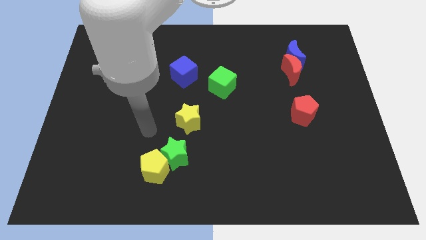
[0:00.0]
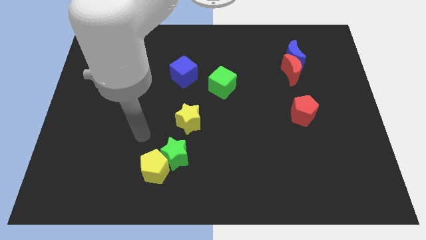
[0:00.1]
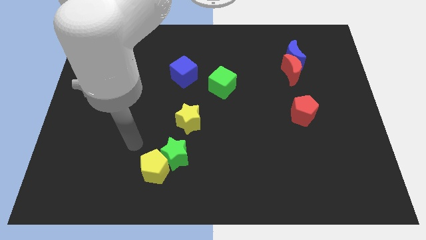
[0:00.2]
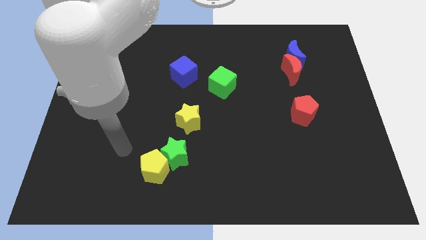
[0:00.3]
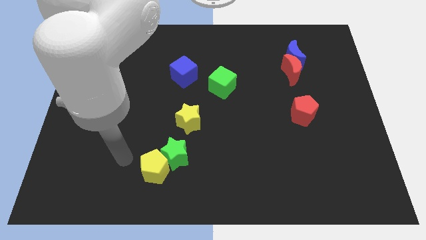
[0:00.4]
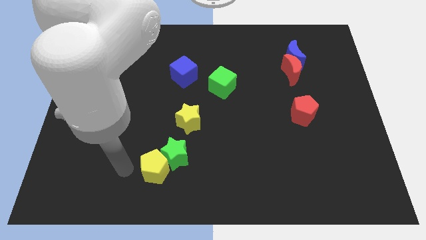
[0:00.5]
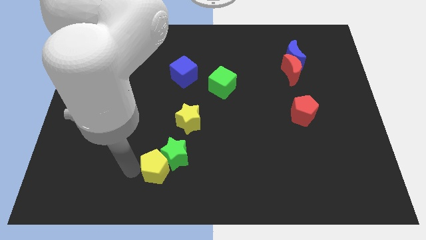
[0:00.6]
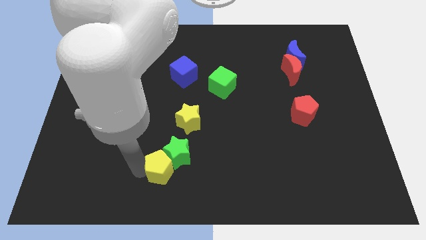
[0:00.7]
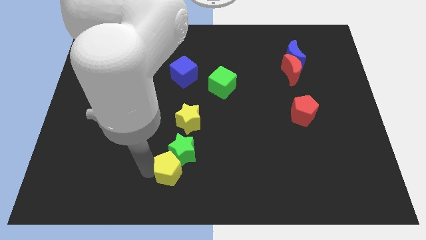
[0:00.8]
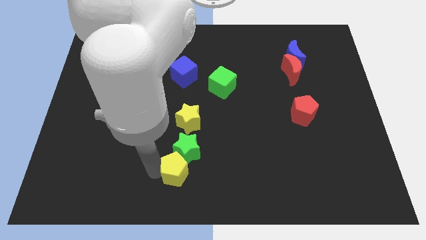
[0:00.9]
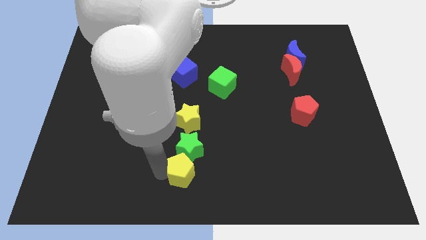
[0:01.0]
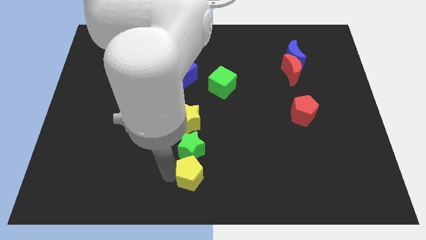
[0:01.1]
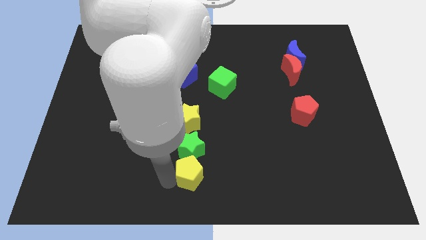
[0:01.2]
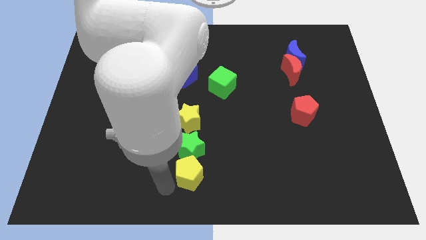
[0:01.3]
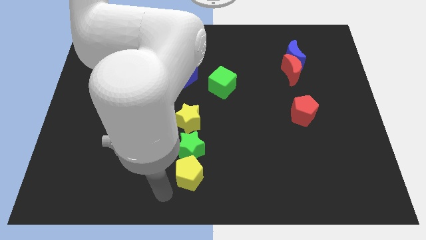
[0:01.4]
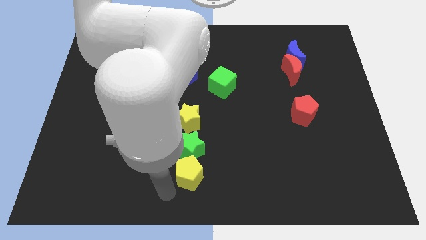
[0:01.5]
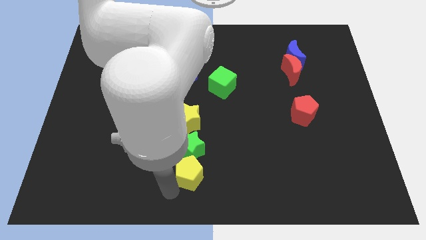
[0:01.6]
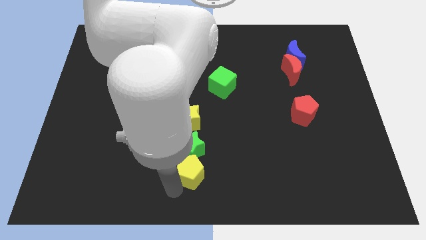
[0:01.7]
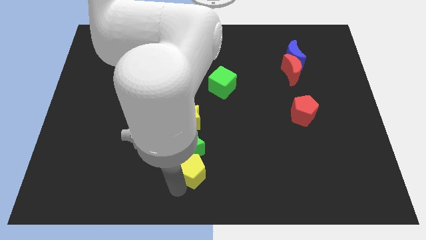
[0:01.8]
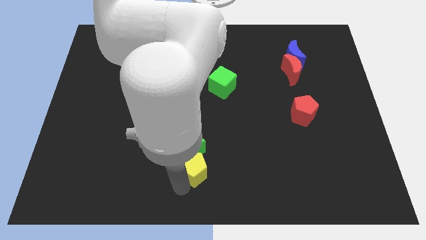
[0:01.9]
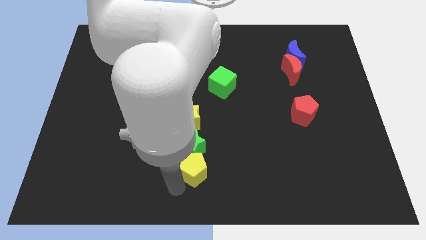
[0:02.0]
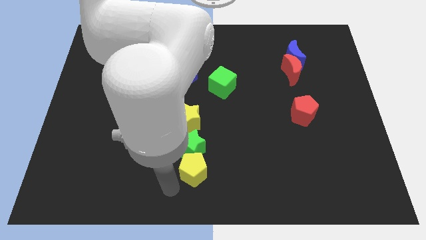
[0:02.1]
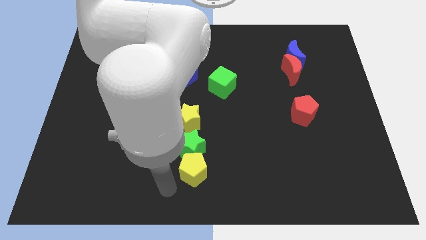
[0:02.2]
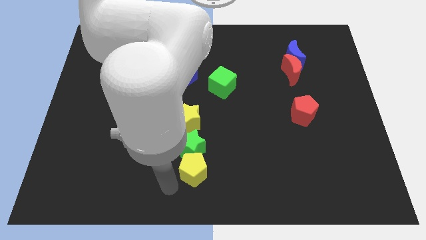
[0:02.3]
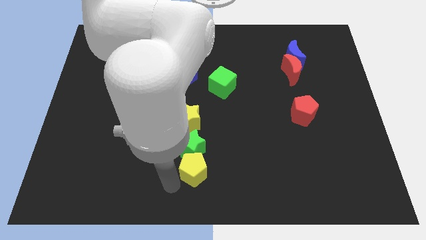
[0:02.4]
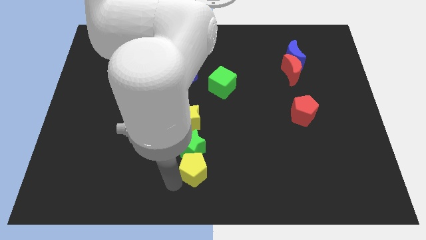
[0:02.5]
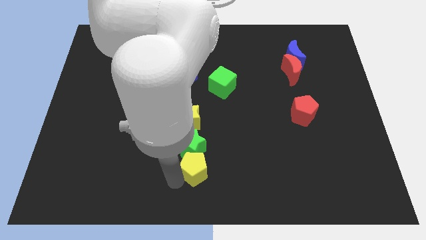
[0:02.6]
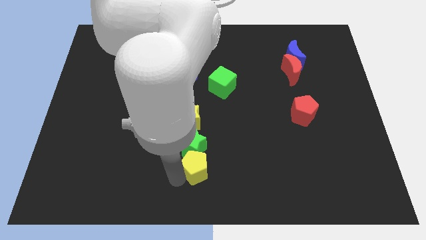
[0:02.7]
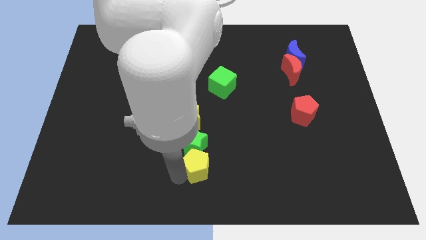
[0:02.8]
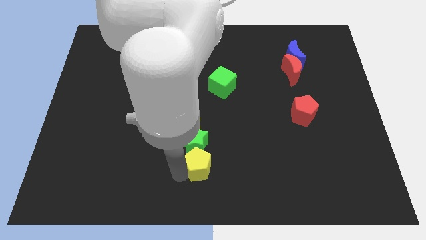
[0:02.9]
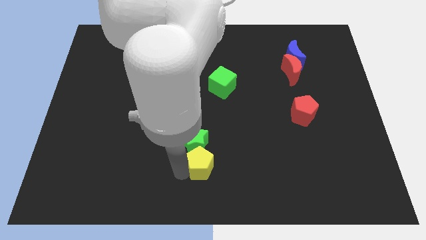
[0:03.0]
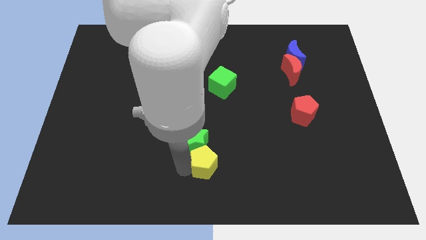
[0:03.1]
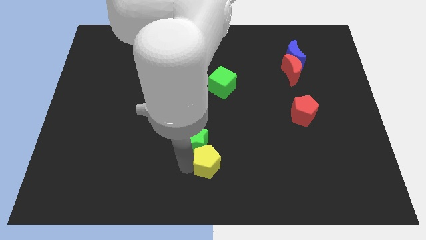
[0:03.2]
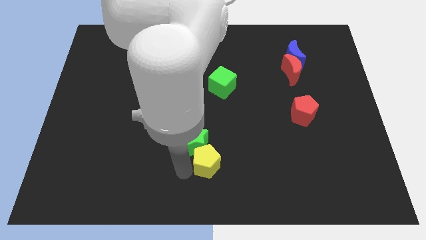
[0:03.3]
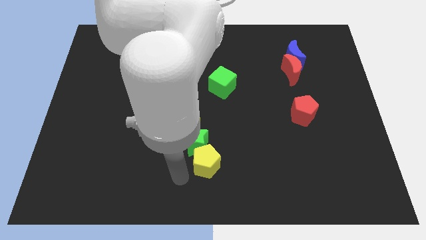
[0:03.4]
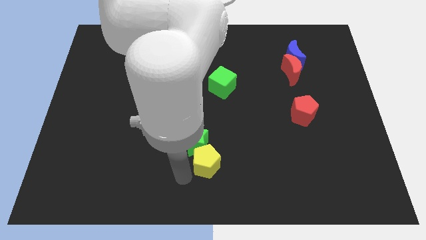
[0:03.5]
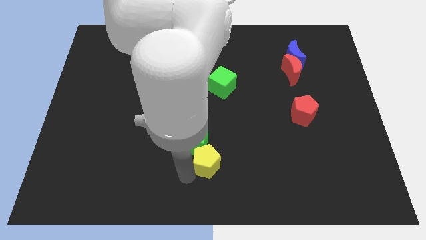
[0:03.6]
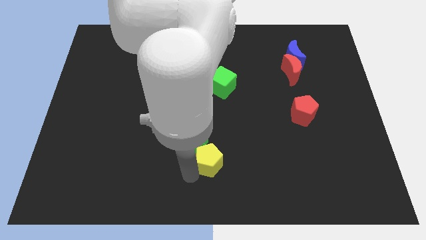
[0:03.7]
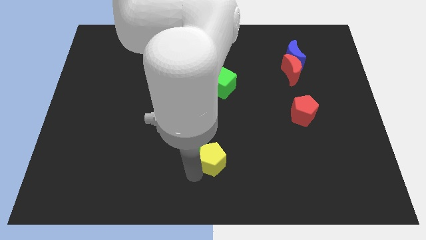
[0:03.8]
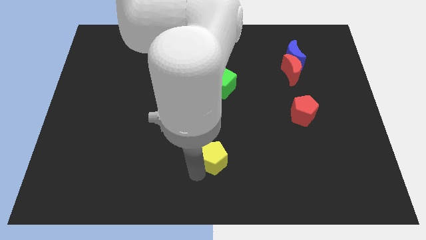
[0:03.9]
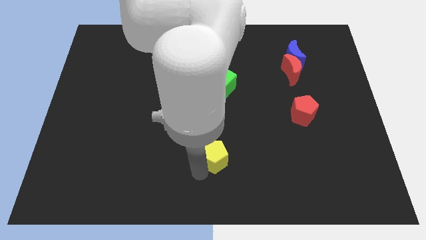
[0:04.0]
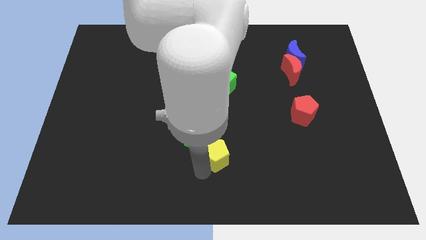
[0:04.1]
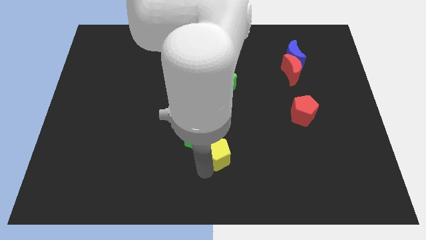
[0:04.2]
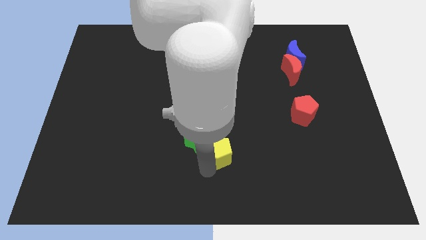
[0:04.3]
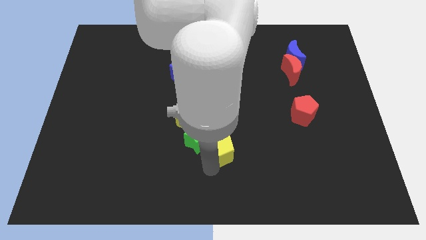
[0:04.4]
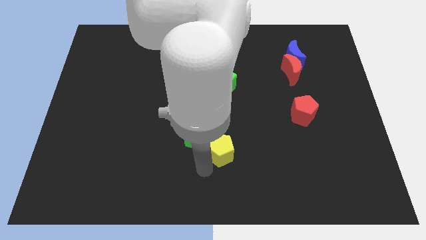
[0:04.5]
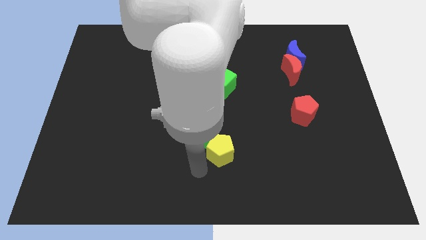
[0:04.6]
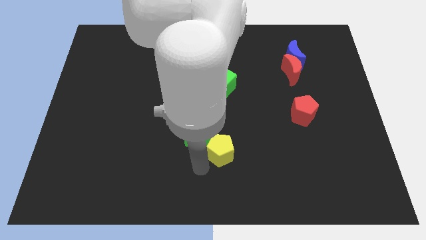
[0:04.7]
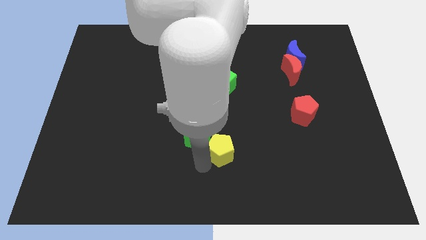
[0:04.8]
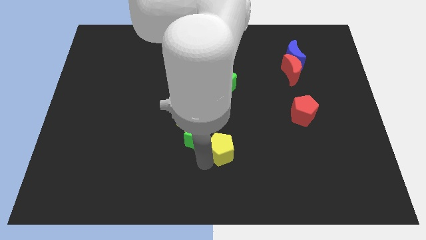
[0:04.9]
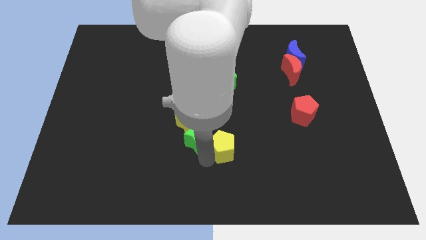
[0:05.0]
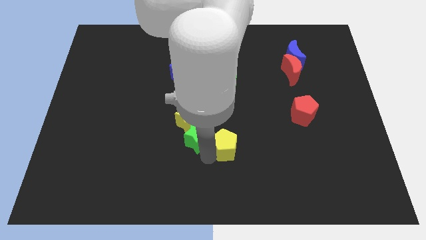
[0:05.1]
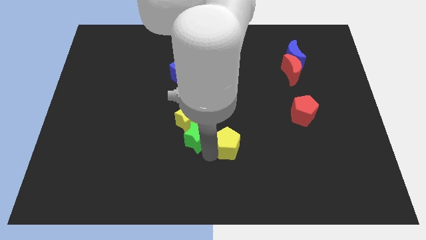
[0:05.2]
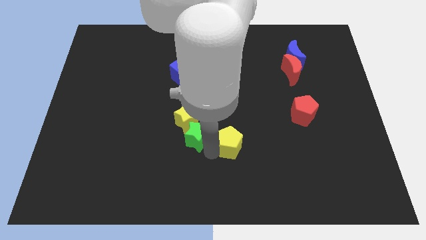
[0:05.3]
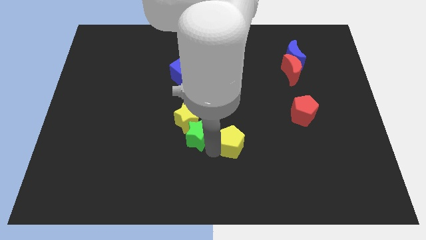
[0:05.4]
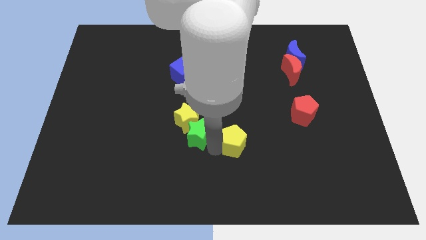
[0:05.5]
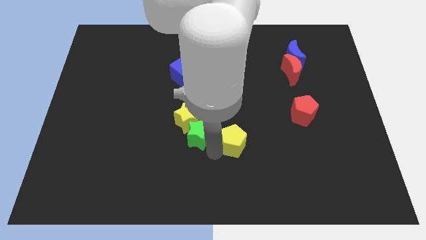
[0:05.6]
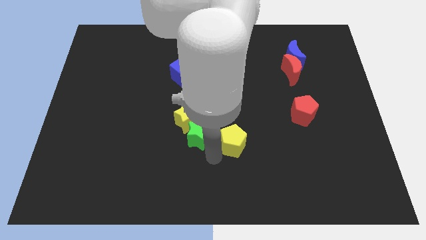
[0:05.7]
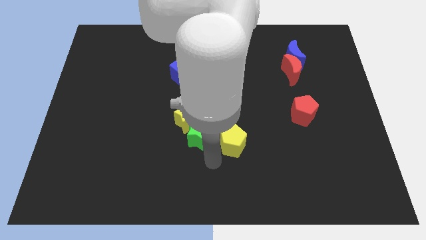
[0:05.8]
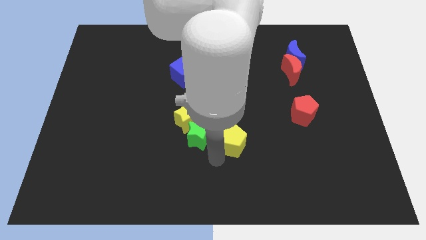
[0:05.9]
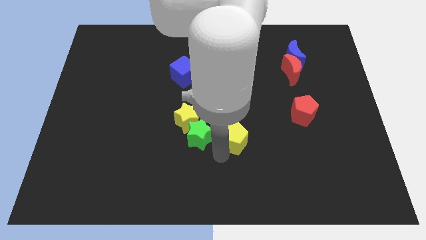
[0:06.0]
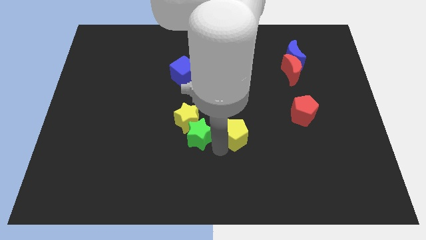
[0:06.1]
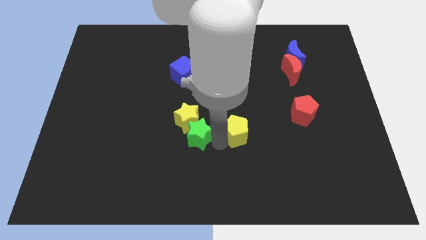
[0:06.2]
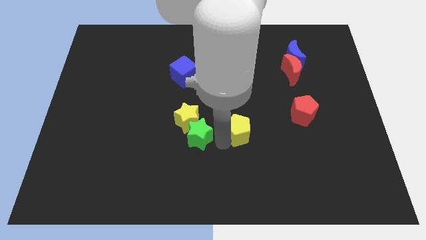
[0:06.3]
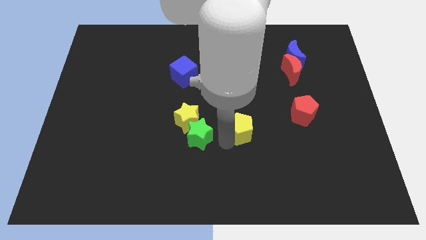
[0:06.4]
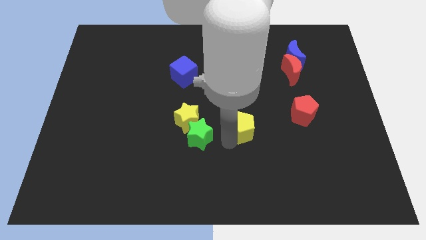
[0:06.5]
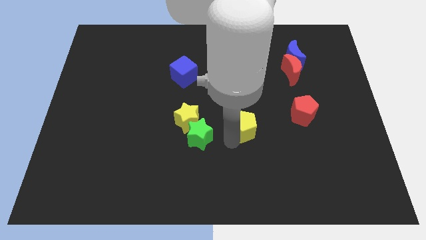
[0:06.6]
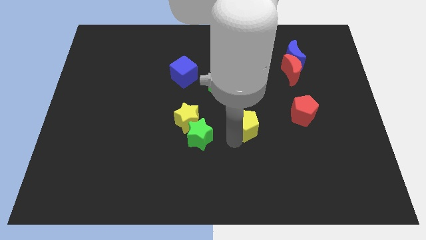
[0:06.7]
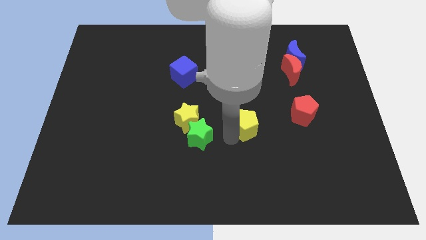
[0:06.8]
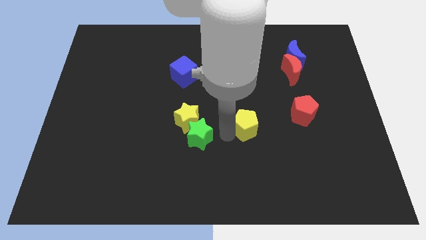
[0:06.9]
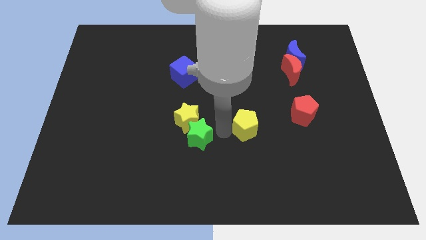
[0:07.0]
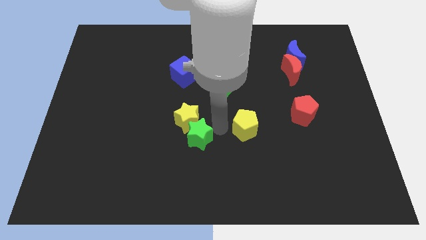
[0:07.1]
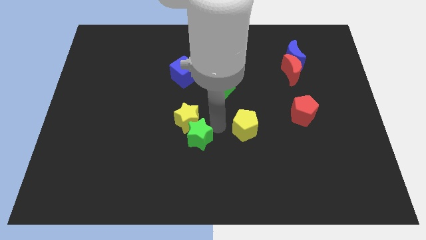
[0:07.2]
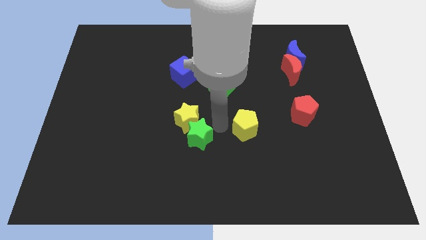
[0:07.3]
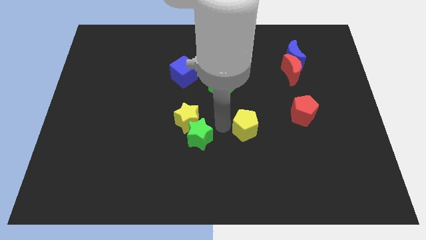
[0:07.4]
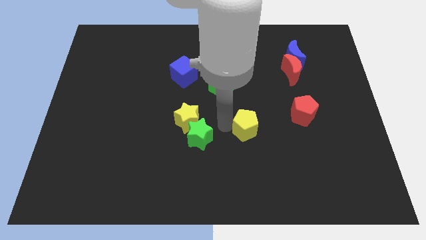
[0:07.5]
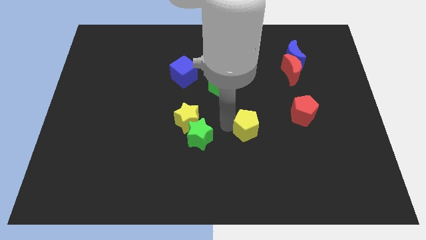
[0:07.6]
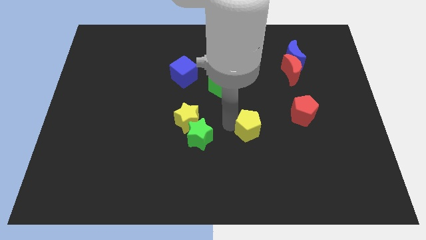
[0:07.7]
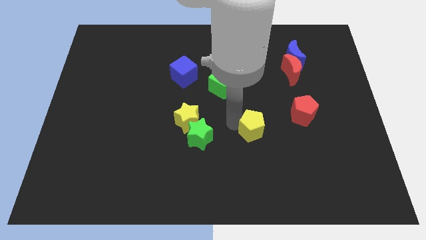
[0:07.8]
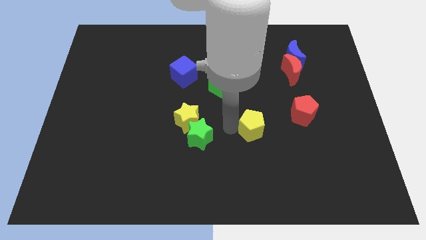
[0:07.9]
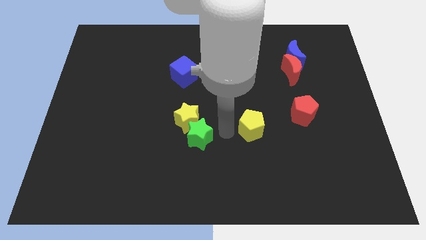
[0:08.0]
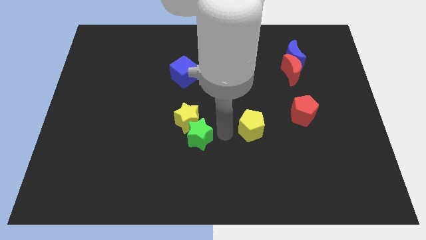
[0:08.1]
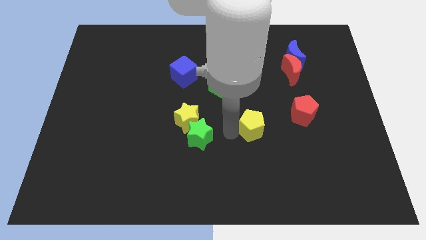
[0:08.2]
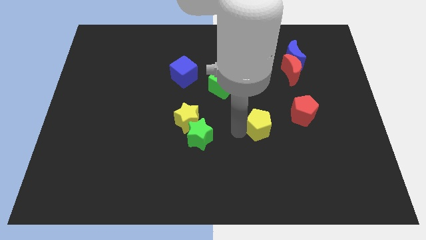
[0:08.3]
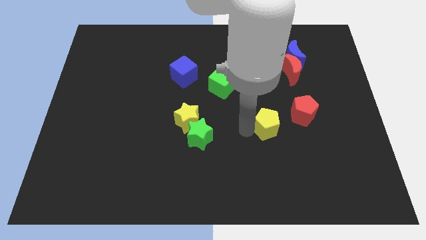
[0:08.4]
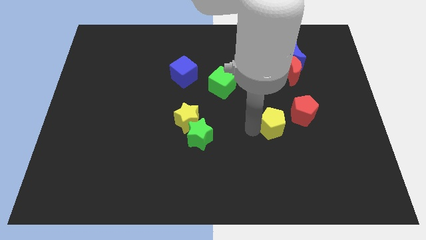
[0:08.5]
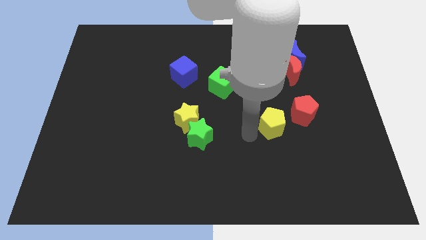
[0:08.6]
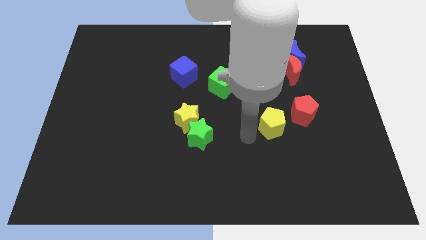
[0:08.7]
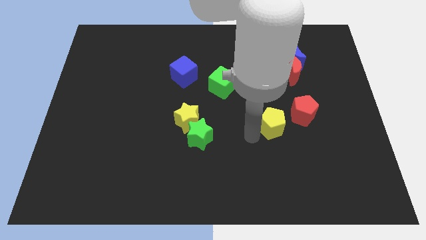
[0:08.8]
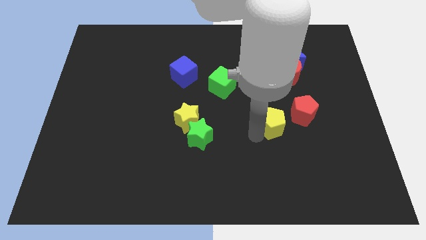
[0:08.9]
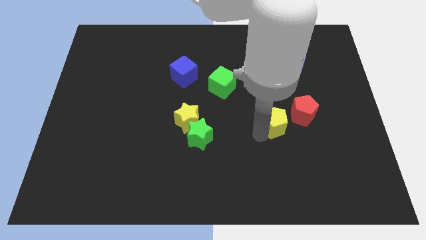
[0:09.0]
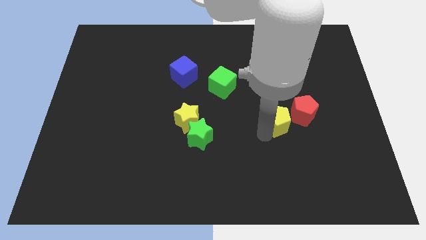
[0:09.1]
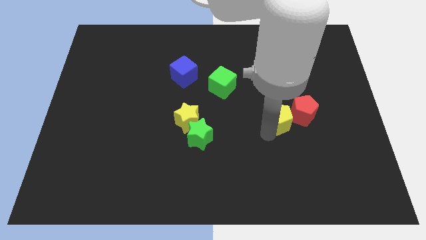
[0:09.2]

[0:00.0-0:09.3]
push the yellow pentagon next to the red pentagon
